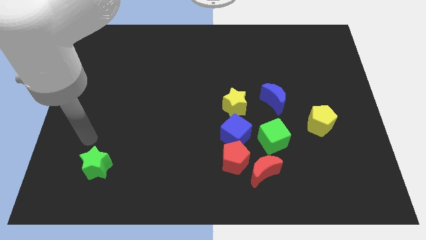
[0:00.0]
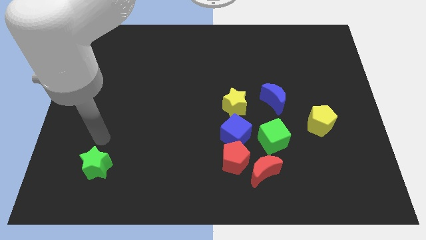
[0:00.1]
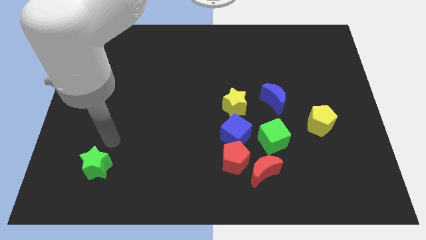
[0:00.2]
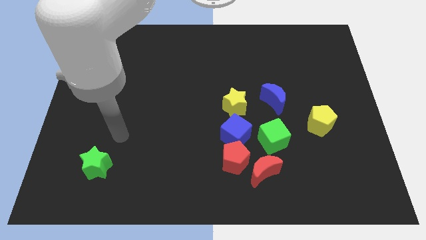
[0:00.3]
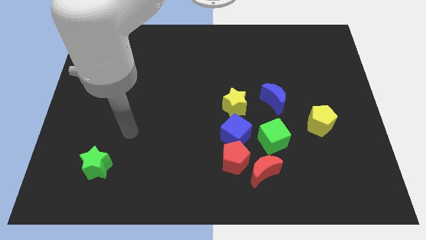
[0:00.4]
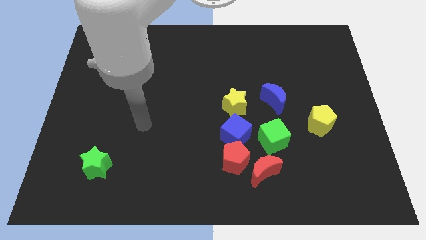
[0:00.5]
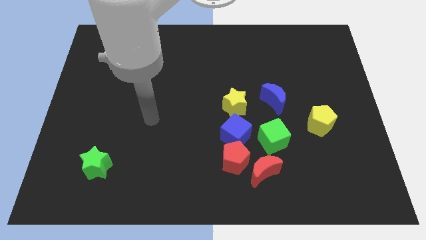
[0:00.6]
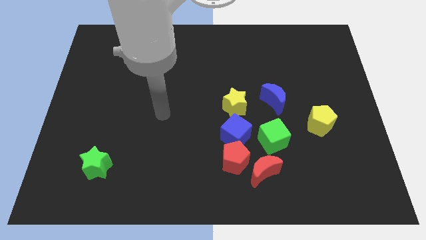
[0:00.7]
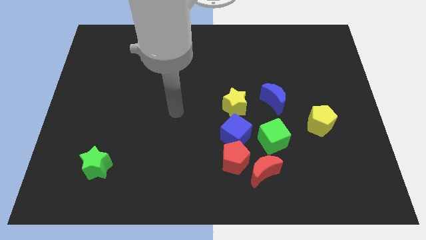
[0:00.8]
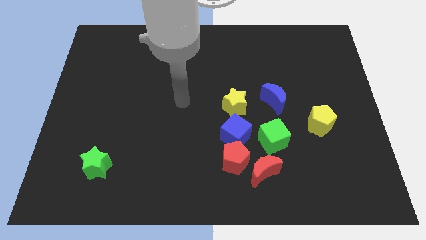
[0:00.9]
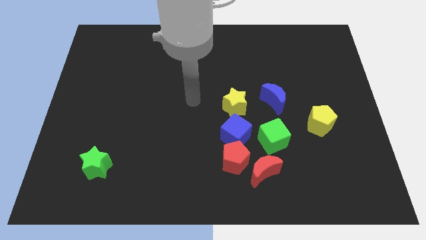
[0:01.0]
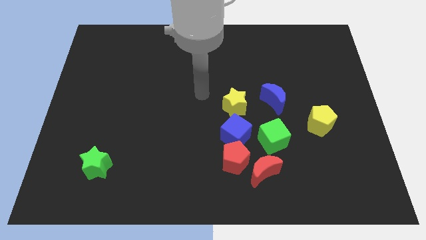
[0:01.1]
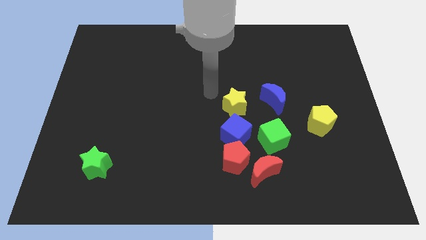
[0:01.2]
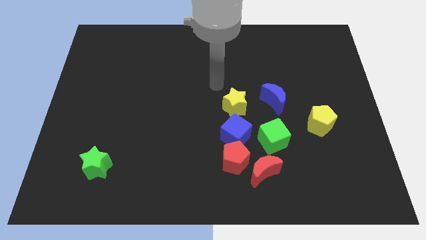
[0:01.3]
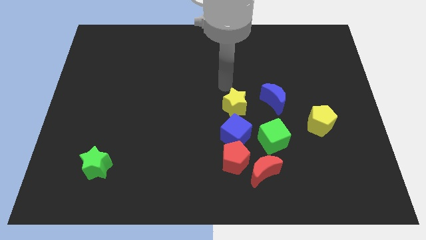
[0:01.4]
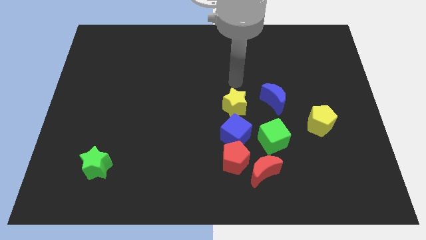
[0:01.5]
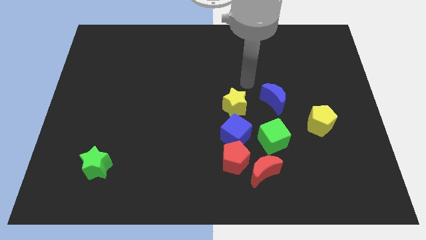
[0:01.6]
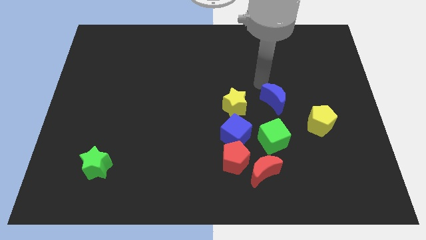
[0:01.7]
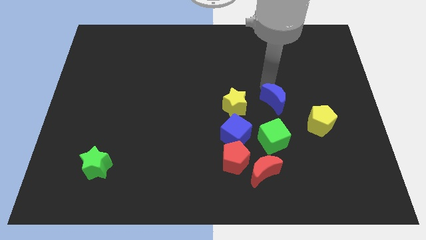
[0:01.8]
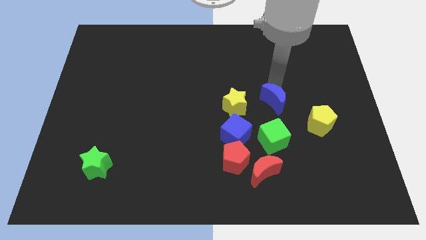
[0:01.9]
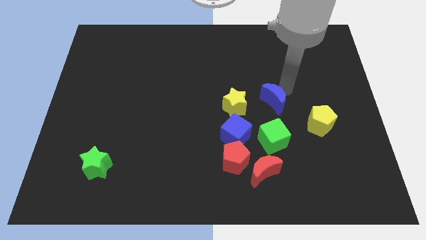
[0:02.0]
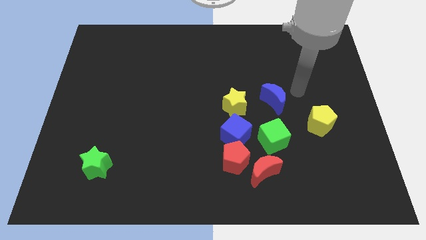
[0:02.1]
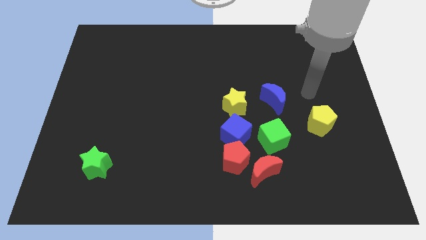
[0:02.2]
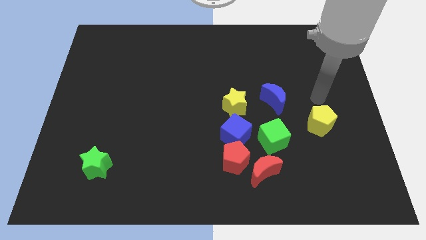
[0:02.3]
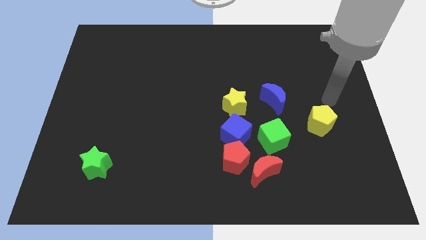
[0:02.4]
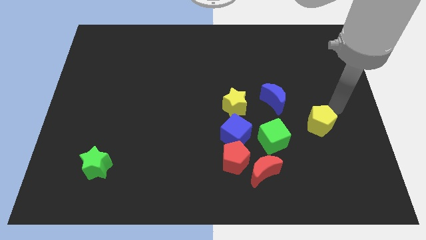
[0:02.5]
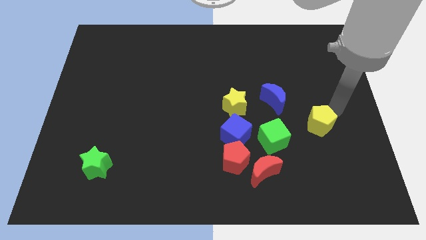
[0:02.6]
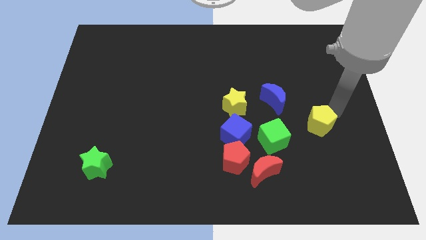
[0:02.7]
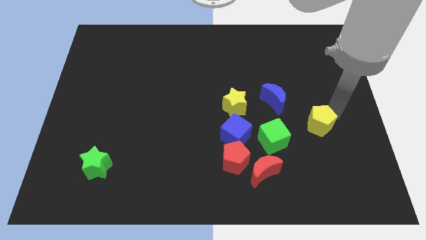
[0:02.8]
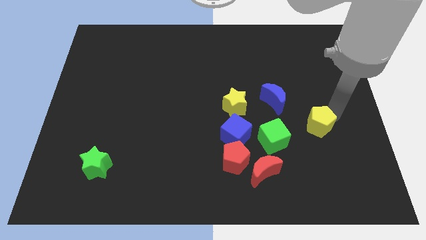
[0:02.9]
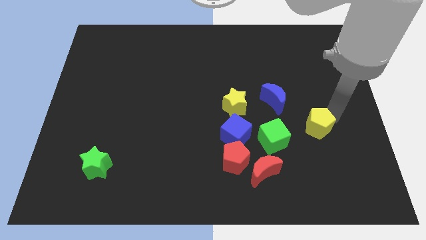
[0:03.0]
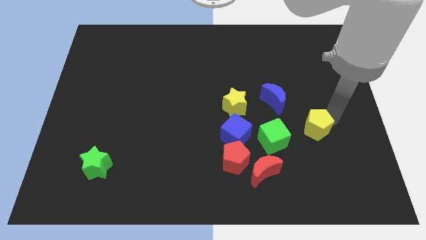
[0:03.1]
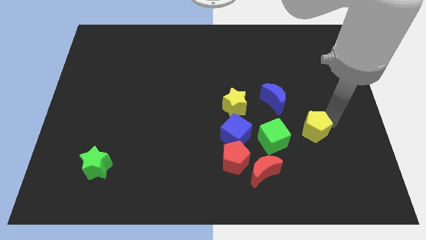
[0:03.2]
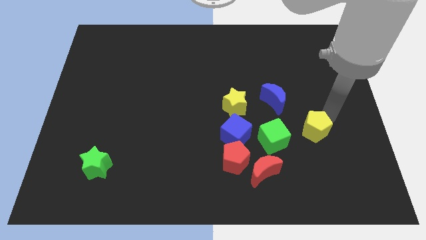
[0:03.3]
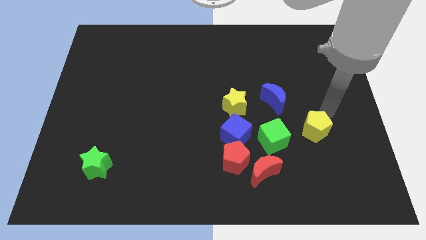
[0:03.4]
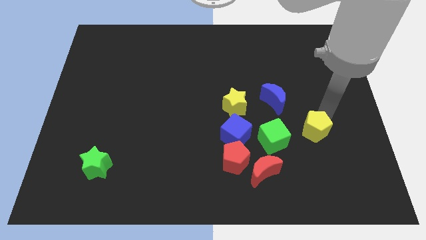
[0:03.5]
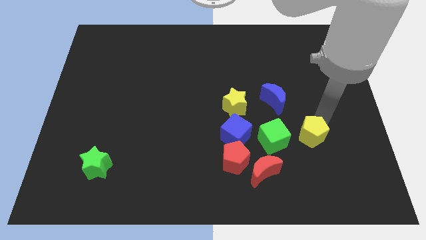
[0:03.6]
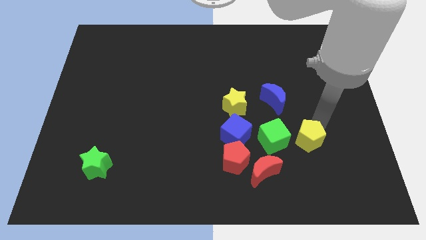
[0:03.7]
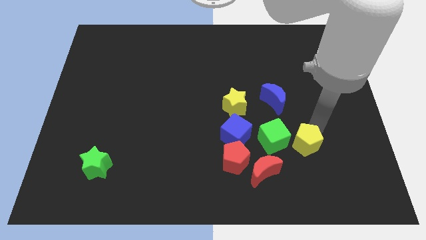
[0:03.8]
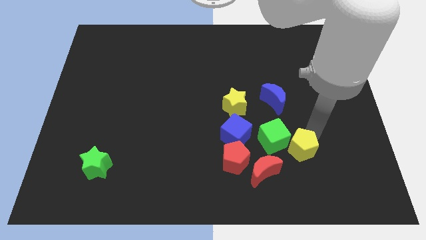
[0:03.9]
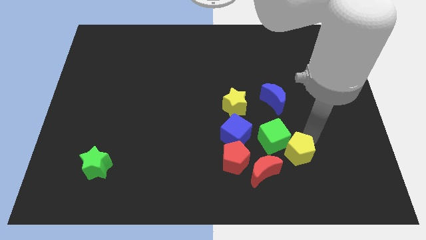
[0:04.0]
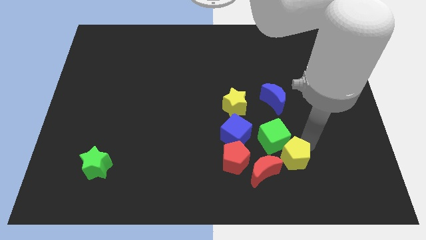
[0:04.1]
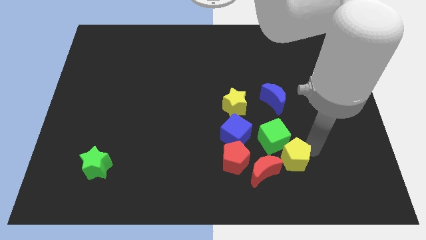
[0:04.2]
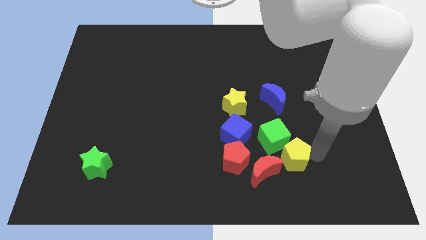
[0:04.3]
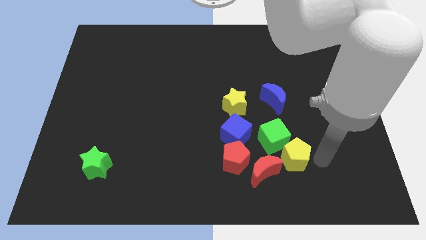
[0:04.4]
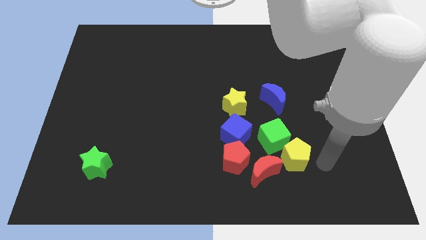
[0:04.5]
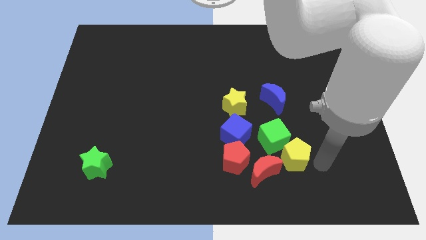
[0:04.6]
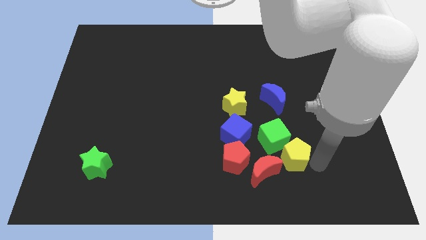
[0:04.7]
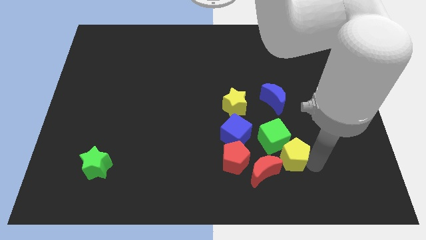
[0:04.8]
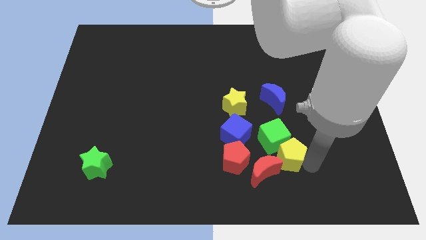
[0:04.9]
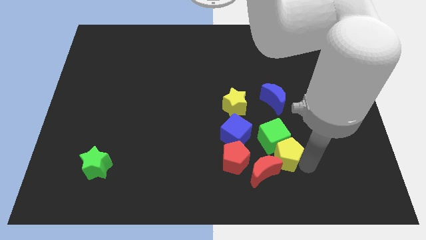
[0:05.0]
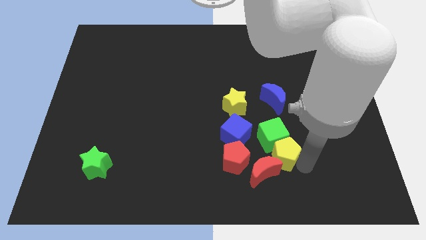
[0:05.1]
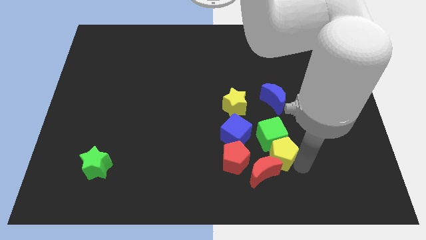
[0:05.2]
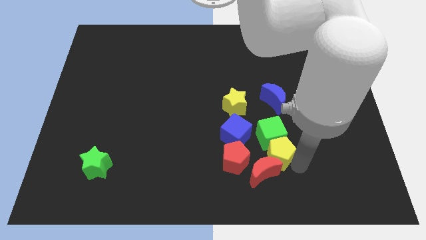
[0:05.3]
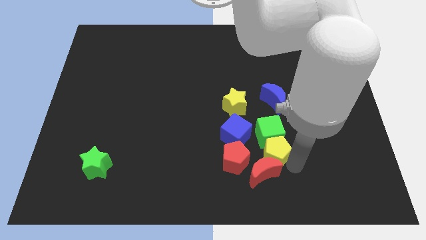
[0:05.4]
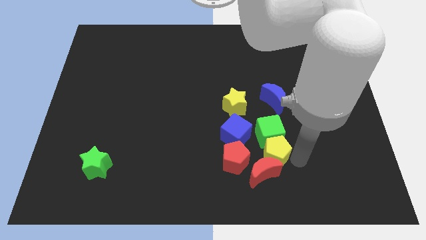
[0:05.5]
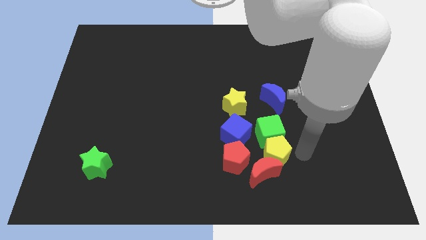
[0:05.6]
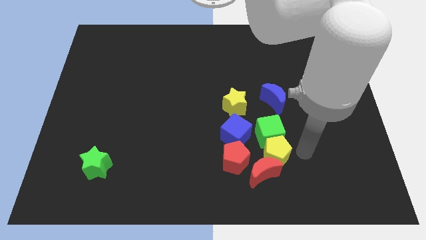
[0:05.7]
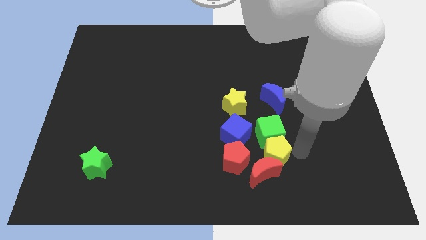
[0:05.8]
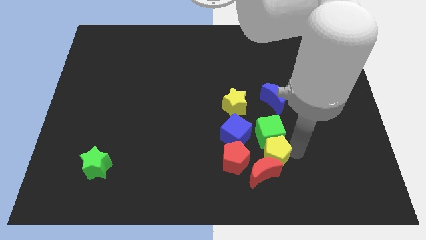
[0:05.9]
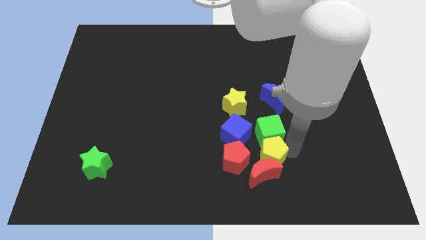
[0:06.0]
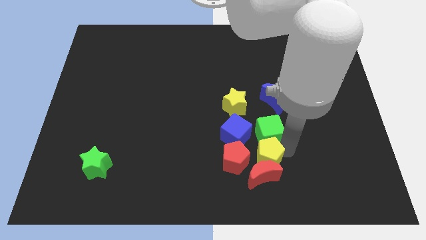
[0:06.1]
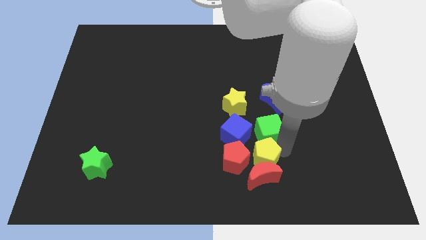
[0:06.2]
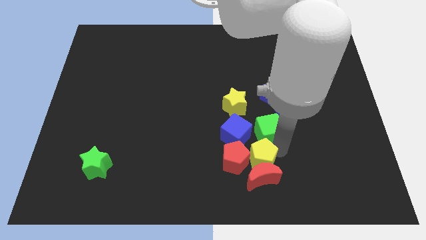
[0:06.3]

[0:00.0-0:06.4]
slide the yellow pentagon close to the red pentagon
